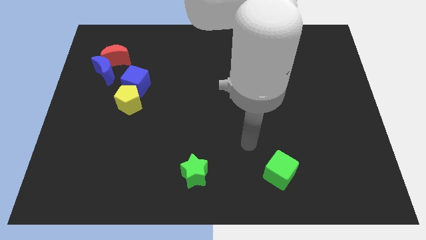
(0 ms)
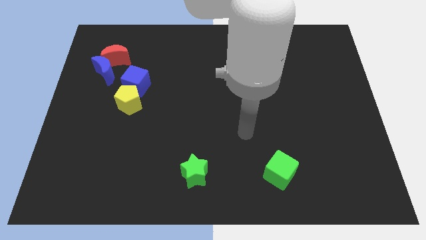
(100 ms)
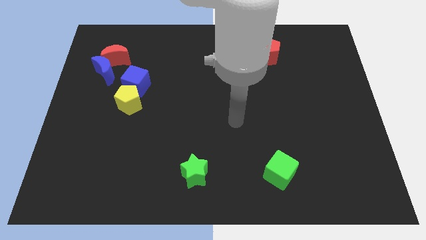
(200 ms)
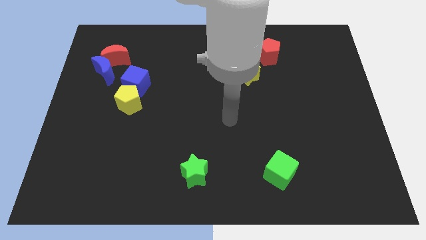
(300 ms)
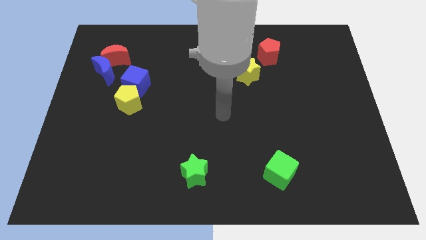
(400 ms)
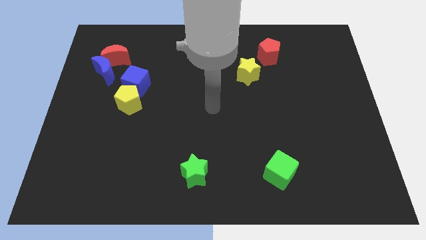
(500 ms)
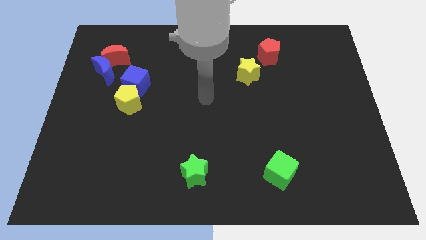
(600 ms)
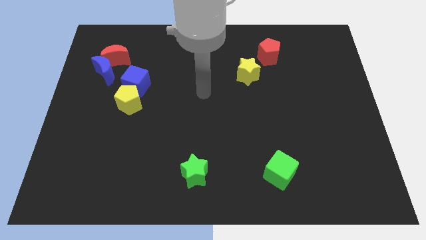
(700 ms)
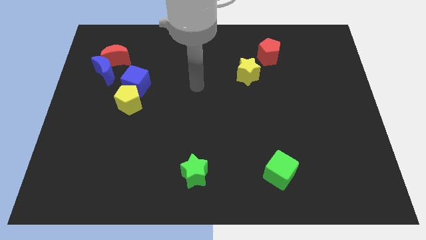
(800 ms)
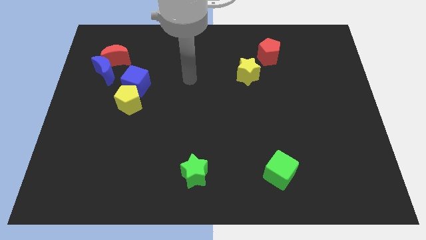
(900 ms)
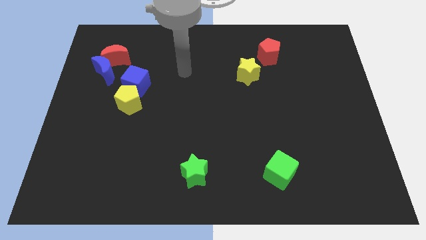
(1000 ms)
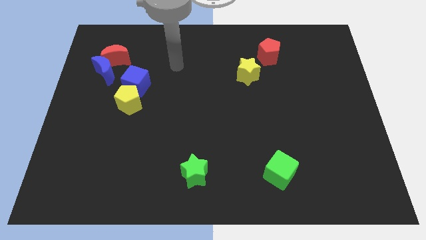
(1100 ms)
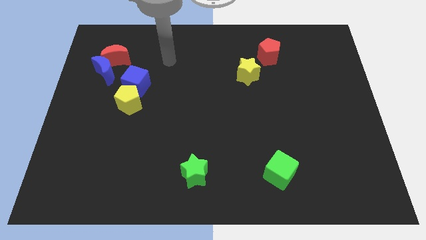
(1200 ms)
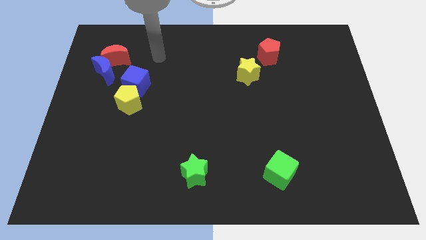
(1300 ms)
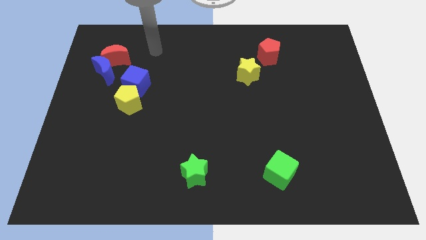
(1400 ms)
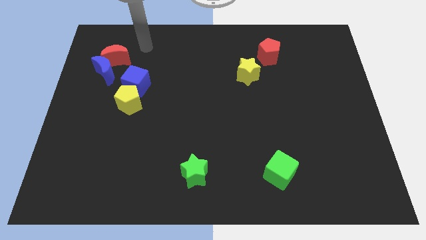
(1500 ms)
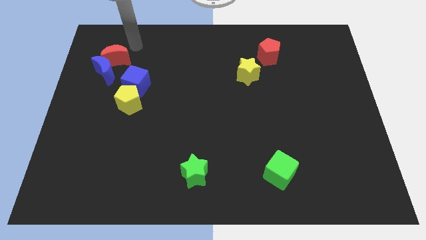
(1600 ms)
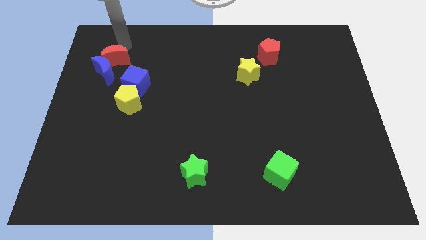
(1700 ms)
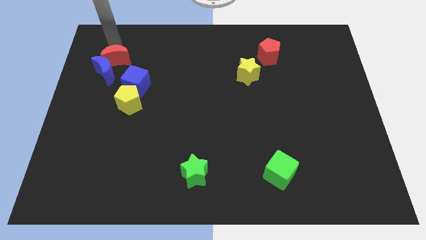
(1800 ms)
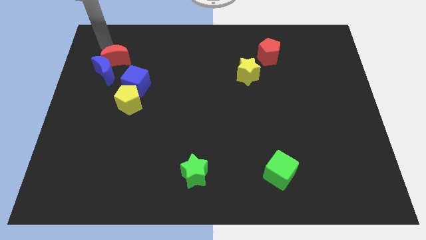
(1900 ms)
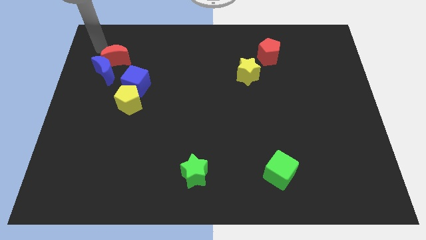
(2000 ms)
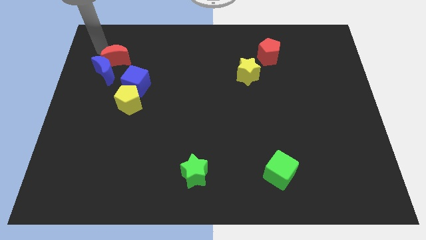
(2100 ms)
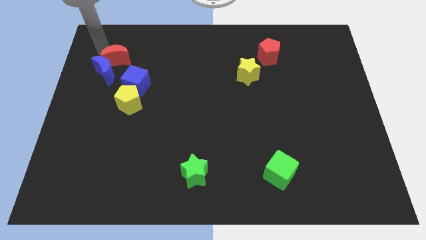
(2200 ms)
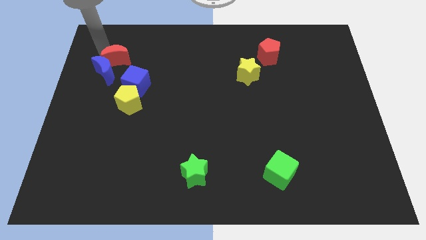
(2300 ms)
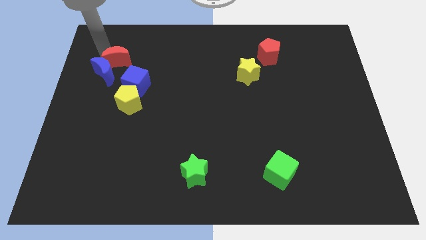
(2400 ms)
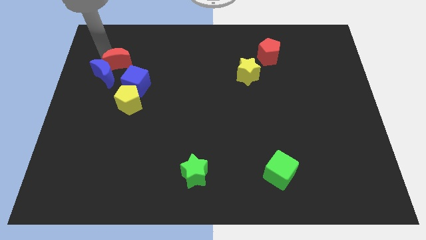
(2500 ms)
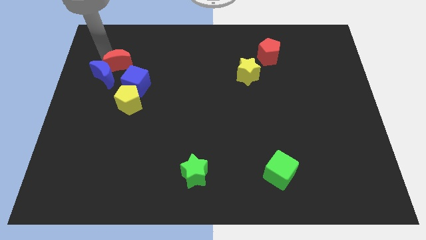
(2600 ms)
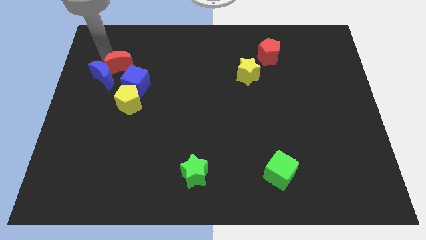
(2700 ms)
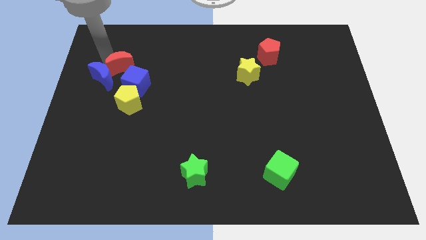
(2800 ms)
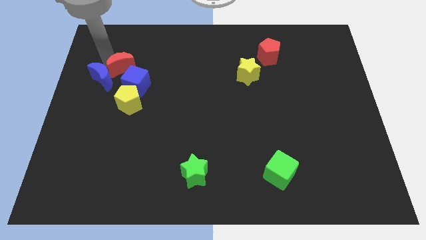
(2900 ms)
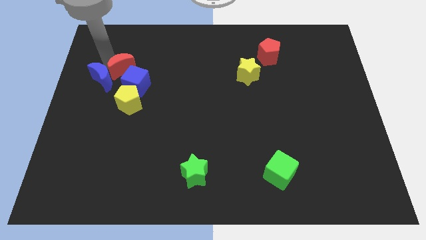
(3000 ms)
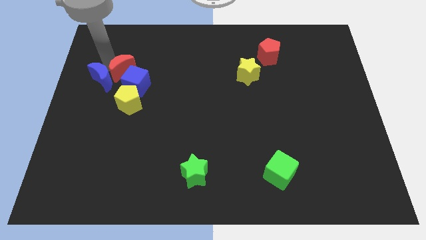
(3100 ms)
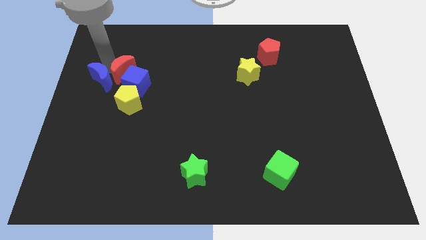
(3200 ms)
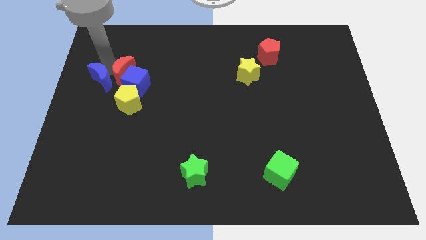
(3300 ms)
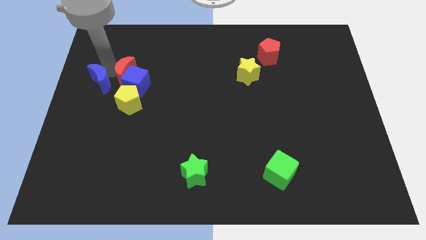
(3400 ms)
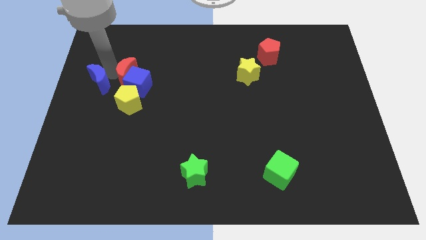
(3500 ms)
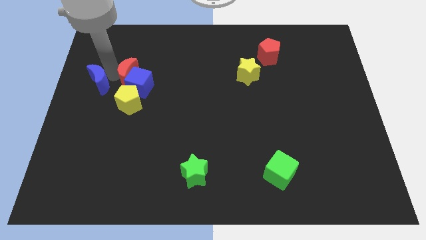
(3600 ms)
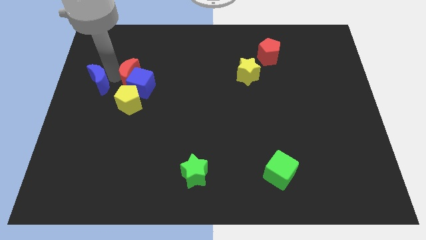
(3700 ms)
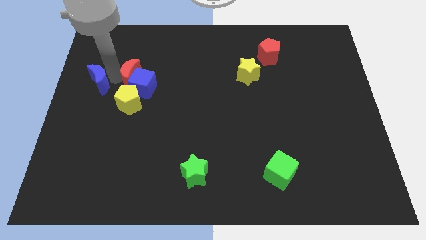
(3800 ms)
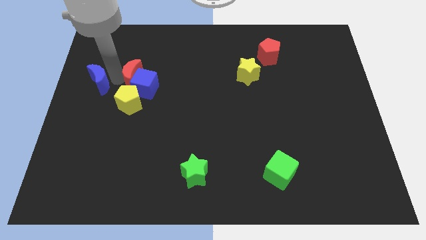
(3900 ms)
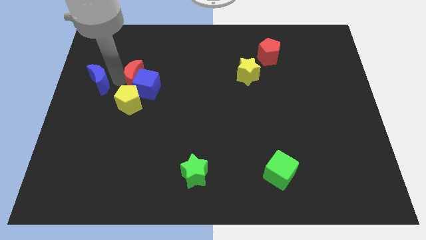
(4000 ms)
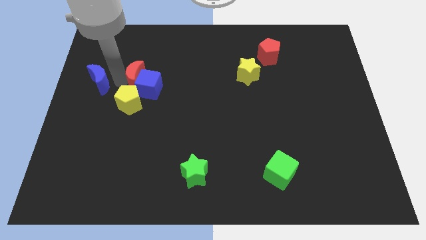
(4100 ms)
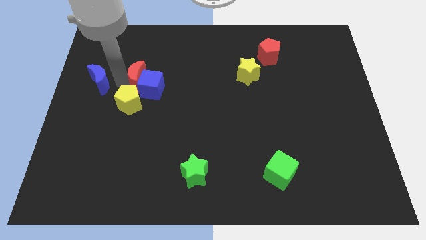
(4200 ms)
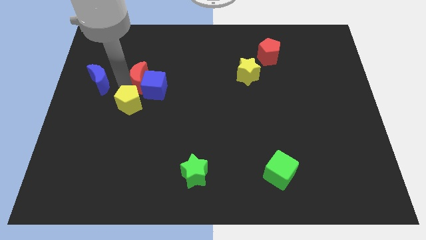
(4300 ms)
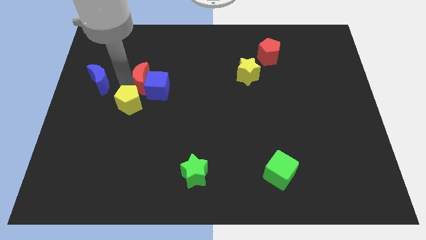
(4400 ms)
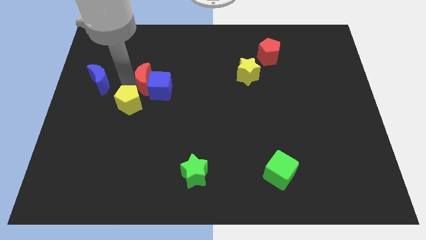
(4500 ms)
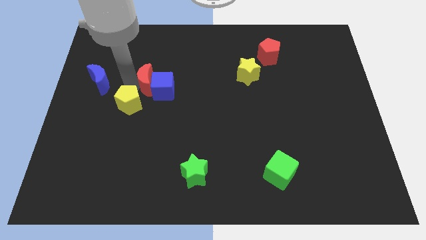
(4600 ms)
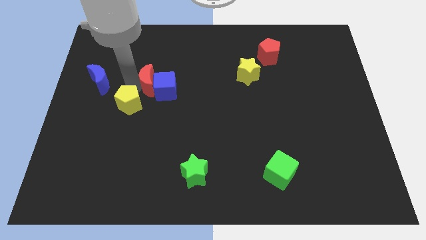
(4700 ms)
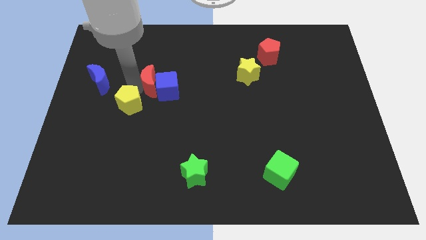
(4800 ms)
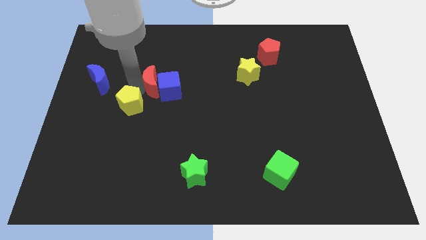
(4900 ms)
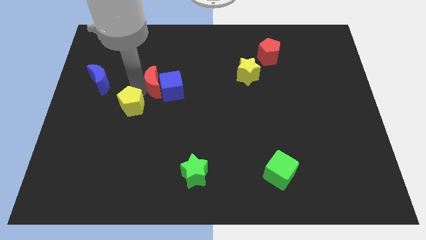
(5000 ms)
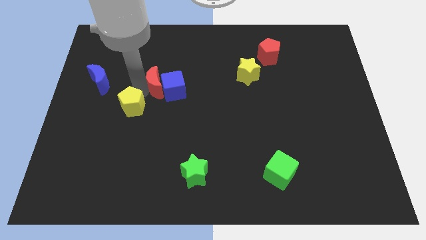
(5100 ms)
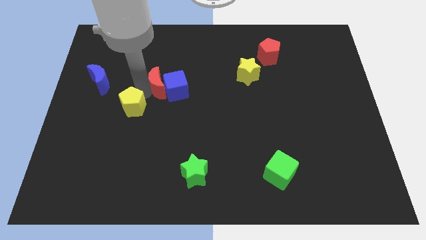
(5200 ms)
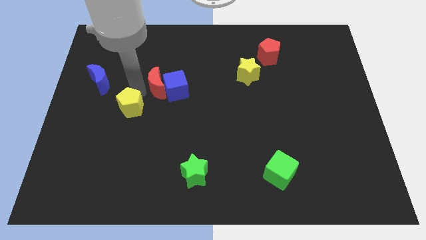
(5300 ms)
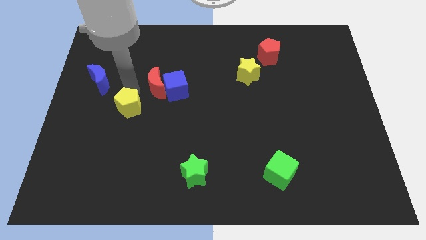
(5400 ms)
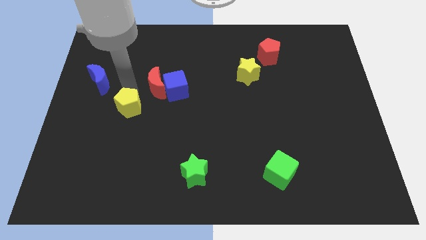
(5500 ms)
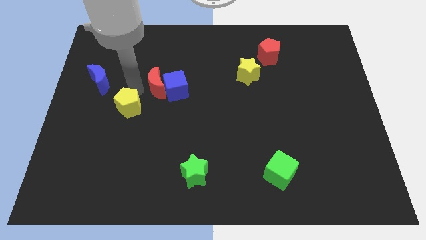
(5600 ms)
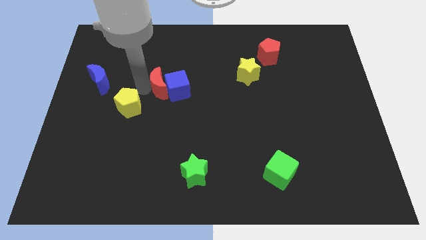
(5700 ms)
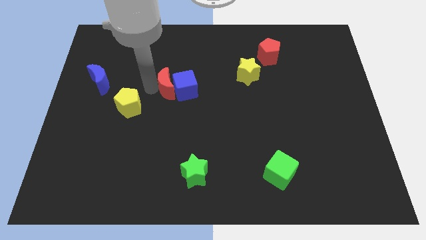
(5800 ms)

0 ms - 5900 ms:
push the red moon to the middle

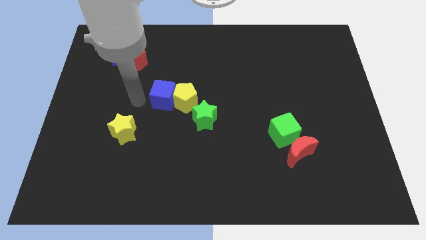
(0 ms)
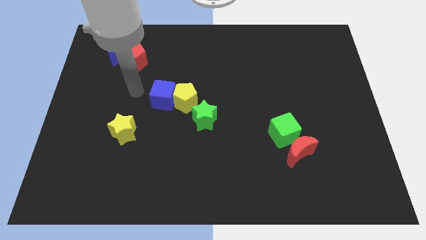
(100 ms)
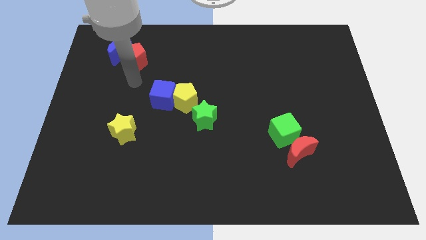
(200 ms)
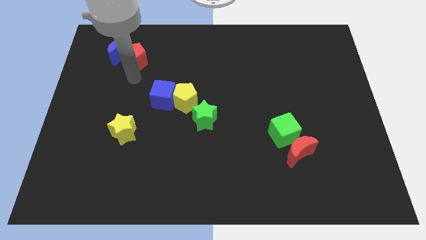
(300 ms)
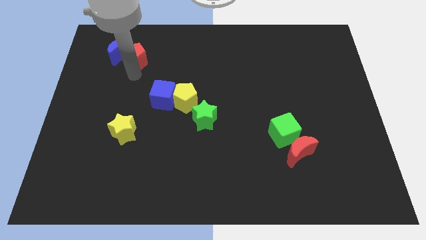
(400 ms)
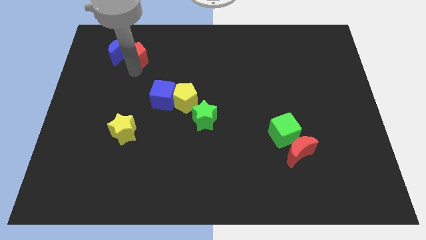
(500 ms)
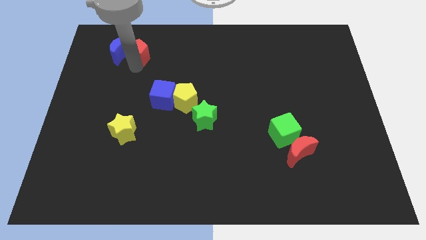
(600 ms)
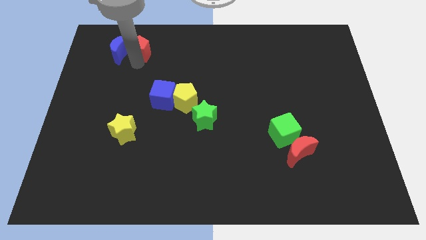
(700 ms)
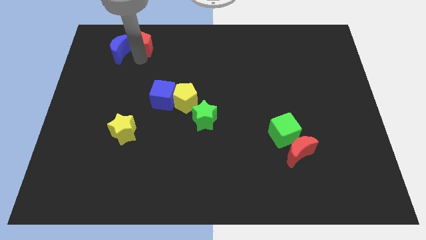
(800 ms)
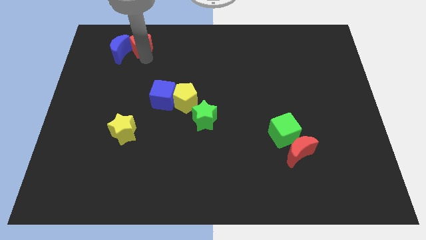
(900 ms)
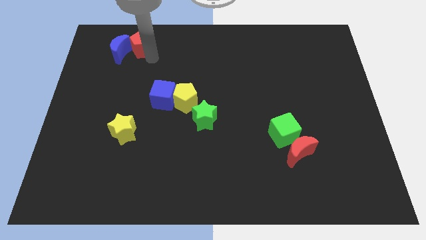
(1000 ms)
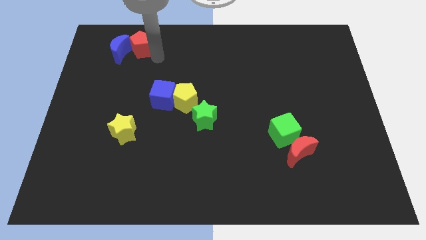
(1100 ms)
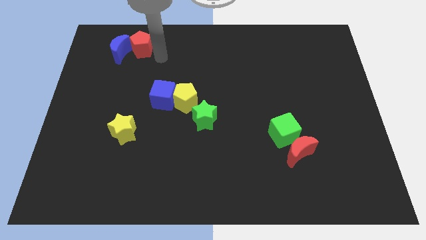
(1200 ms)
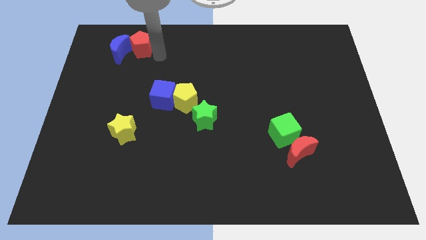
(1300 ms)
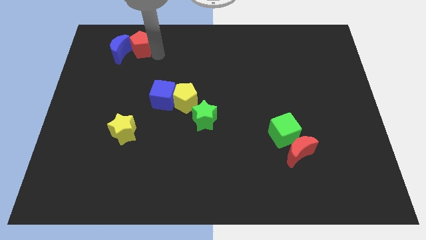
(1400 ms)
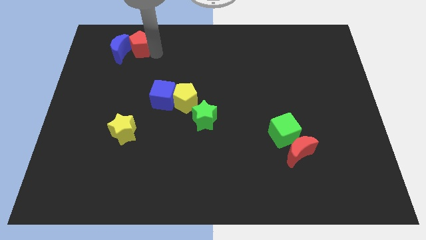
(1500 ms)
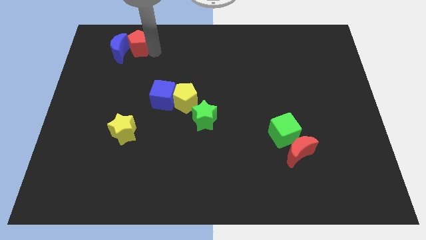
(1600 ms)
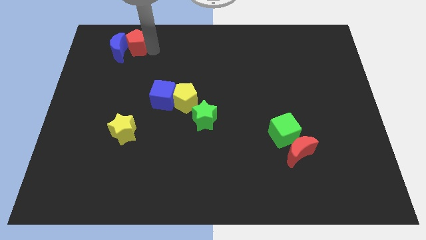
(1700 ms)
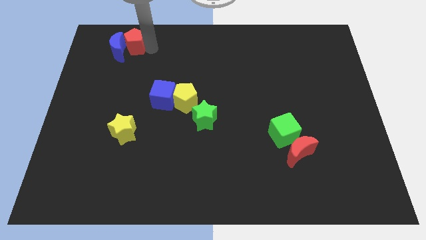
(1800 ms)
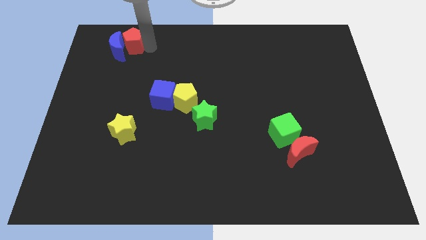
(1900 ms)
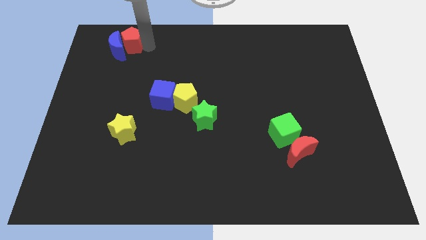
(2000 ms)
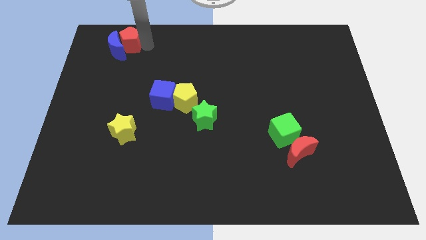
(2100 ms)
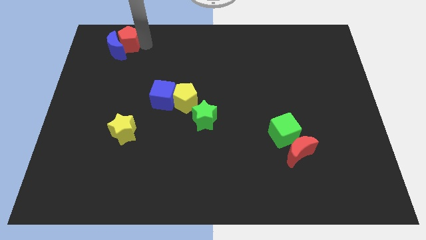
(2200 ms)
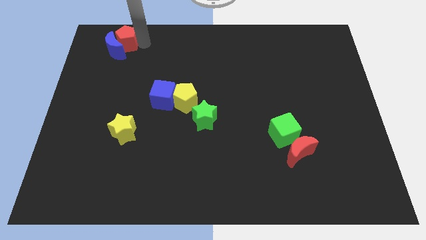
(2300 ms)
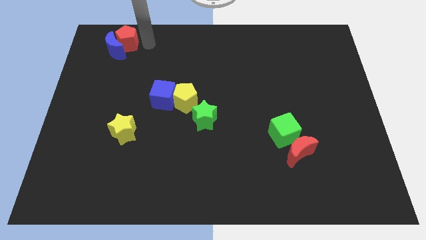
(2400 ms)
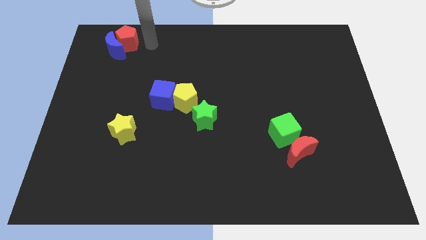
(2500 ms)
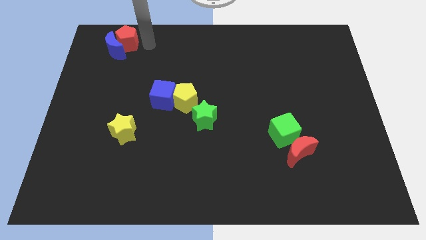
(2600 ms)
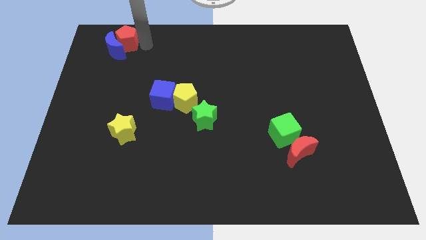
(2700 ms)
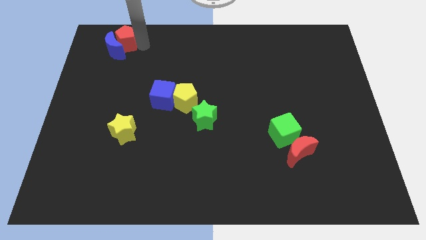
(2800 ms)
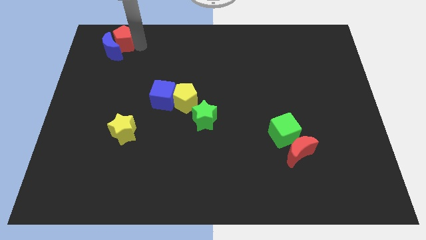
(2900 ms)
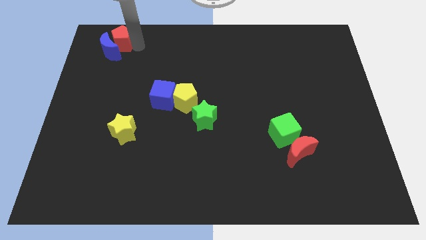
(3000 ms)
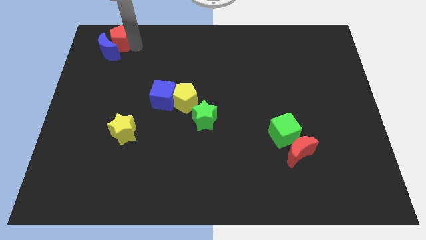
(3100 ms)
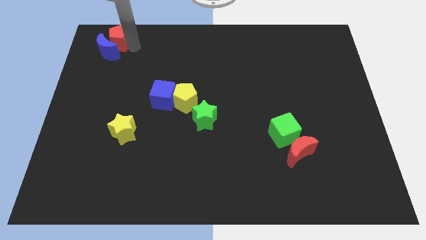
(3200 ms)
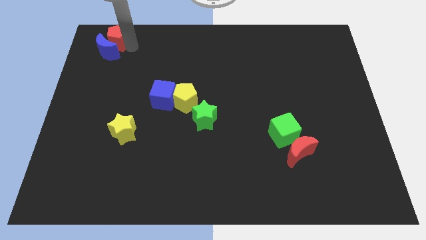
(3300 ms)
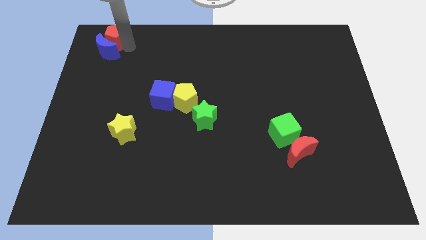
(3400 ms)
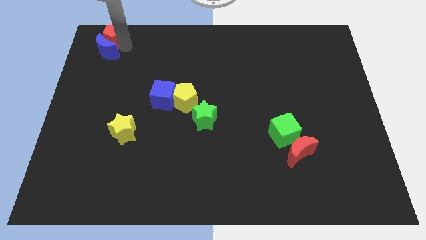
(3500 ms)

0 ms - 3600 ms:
put the red pentagon to the top left
